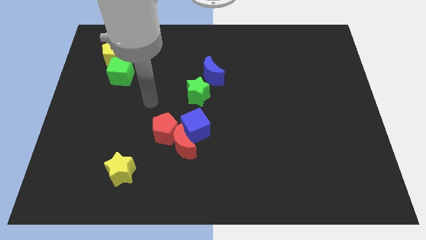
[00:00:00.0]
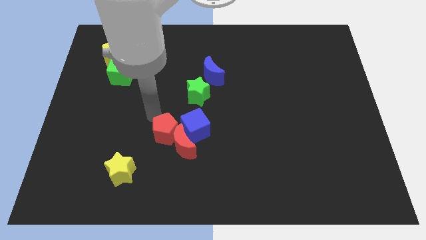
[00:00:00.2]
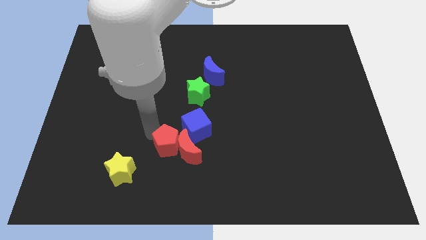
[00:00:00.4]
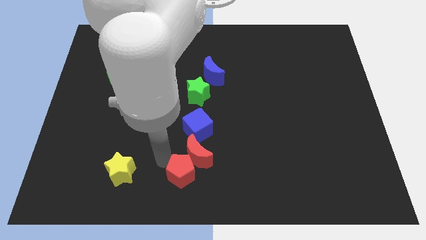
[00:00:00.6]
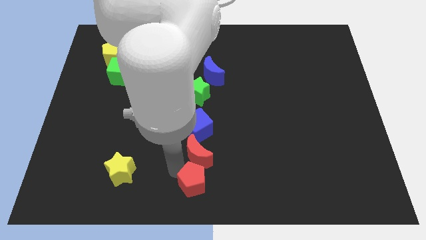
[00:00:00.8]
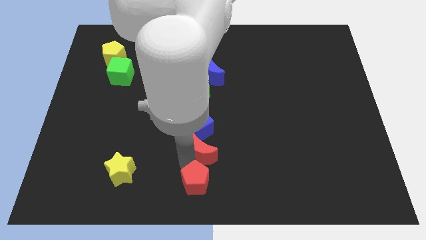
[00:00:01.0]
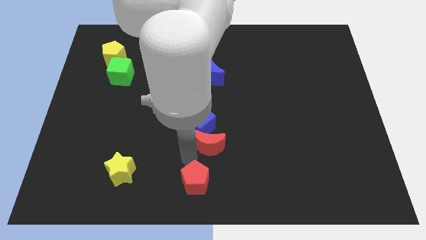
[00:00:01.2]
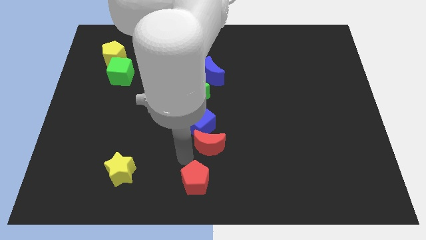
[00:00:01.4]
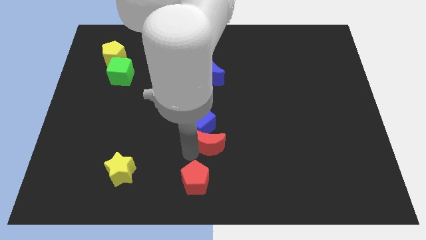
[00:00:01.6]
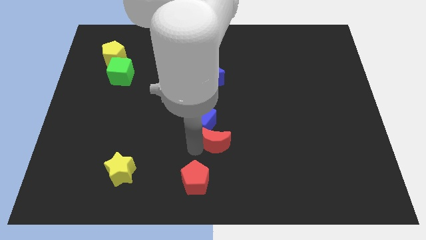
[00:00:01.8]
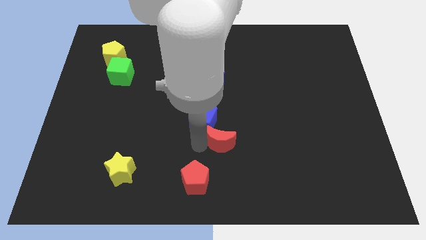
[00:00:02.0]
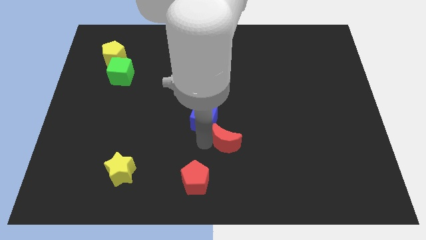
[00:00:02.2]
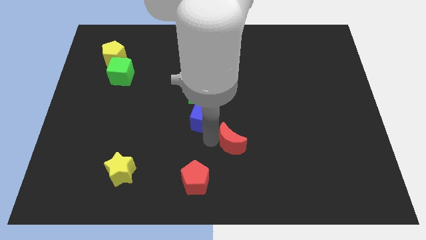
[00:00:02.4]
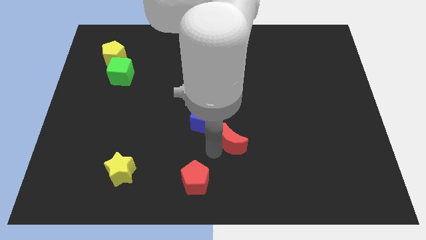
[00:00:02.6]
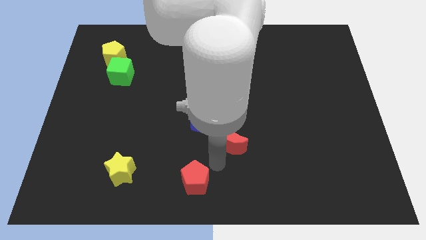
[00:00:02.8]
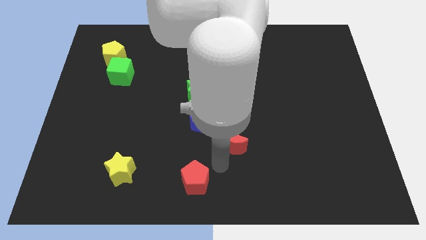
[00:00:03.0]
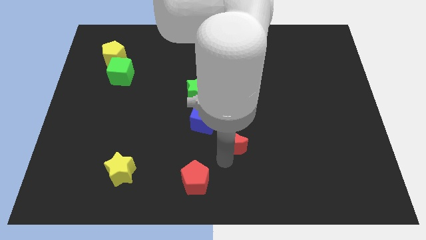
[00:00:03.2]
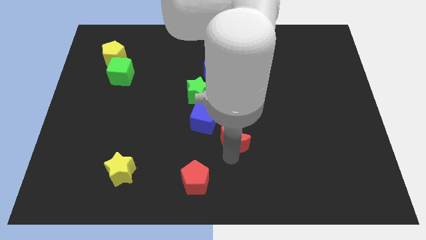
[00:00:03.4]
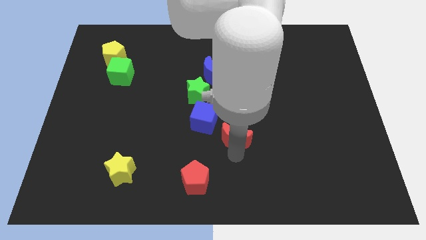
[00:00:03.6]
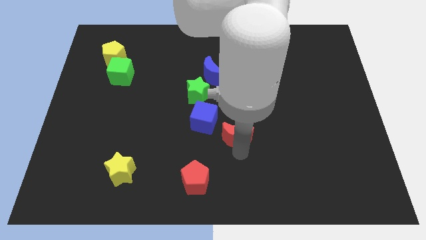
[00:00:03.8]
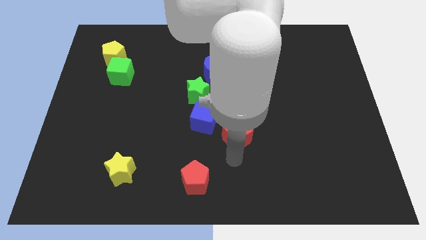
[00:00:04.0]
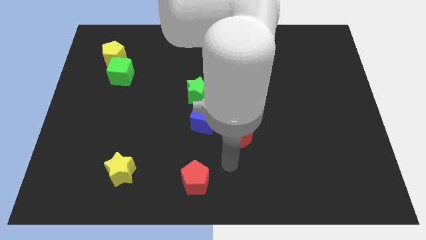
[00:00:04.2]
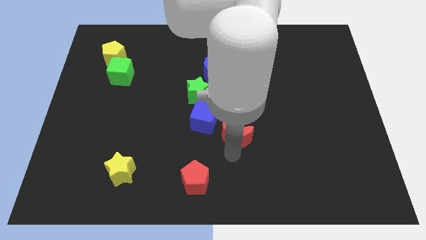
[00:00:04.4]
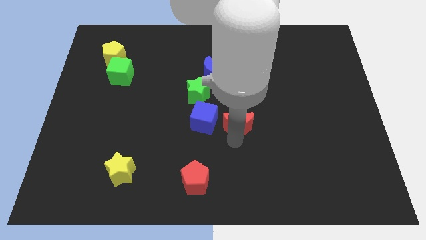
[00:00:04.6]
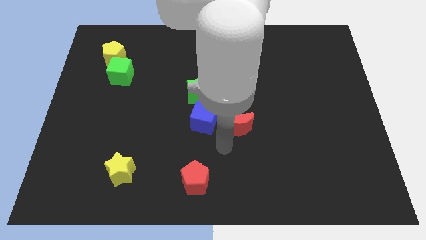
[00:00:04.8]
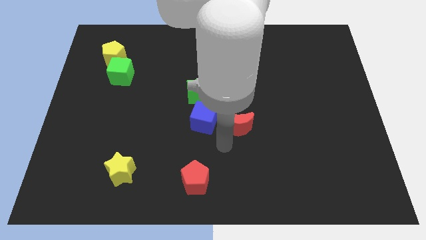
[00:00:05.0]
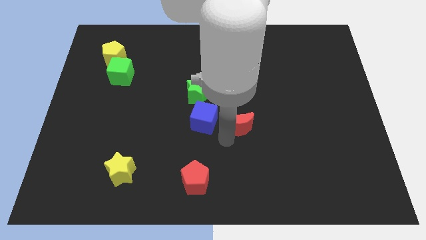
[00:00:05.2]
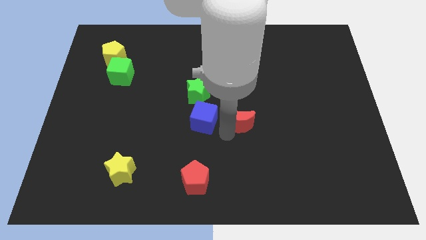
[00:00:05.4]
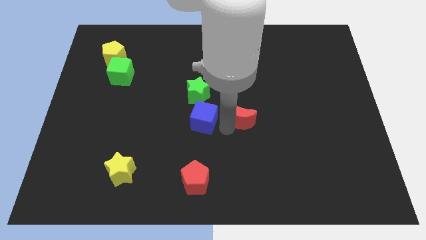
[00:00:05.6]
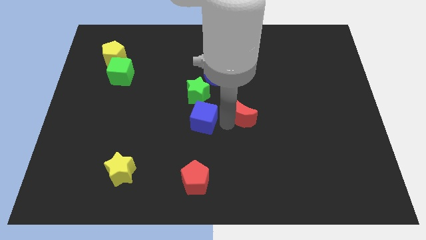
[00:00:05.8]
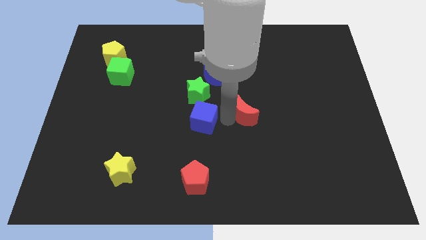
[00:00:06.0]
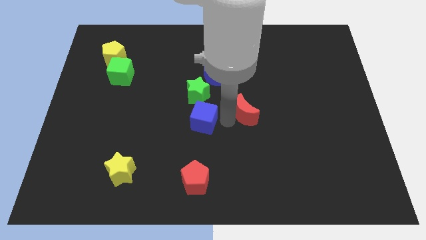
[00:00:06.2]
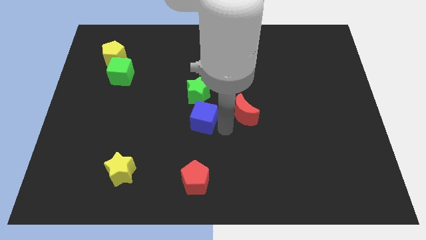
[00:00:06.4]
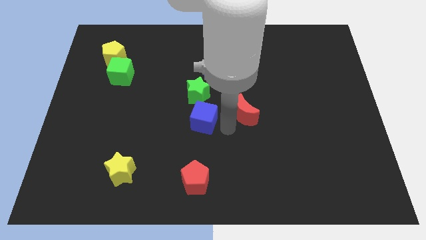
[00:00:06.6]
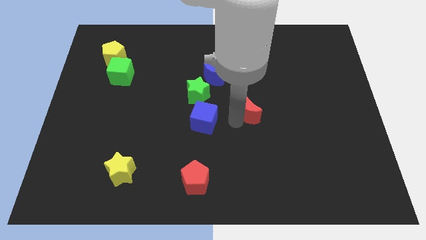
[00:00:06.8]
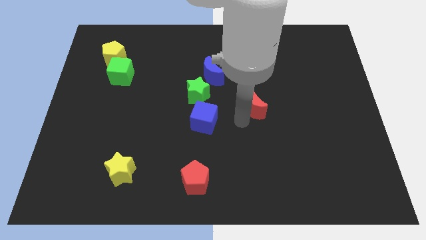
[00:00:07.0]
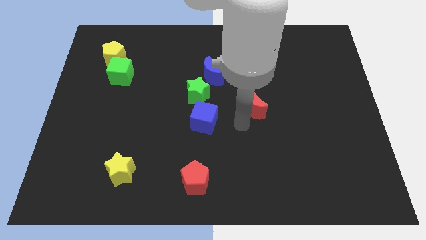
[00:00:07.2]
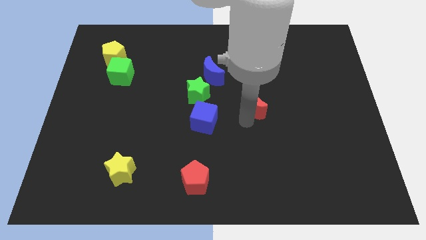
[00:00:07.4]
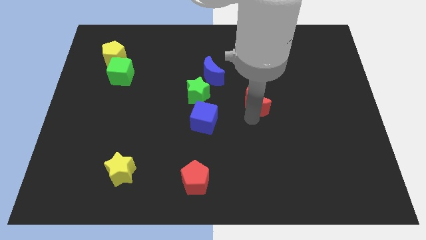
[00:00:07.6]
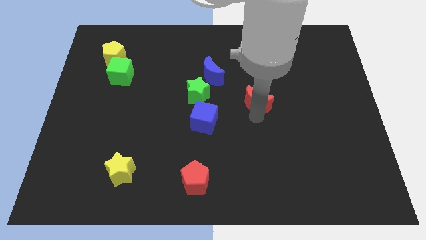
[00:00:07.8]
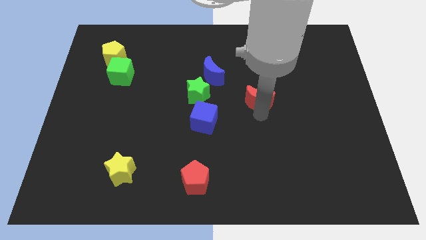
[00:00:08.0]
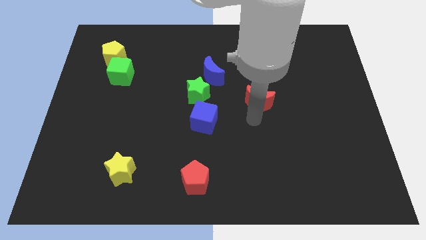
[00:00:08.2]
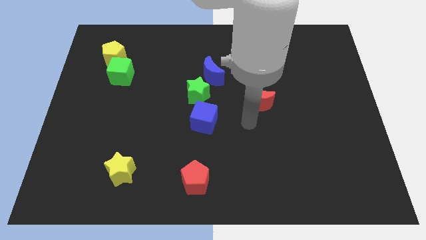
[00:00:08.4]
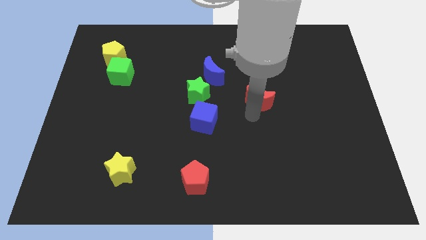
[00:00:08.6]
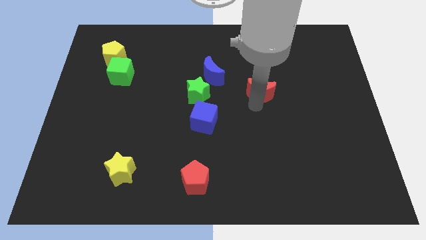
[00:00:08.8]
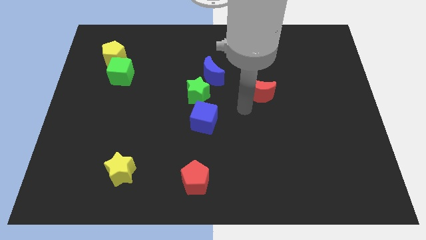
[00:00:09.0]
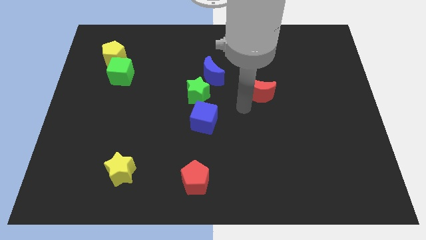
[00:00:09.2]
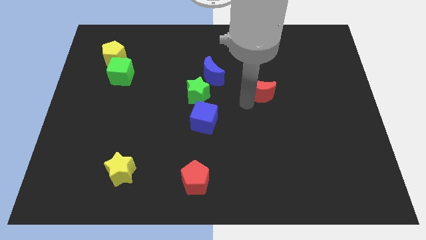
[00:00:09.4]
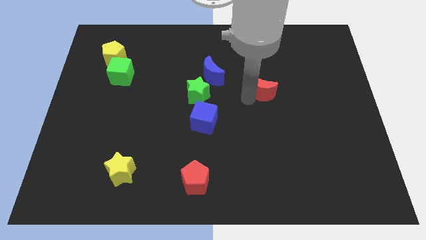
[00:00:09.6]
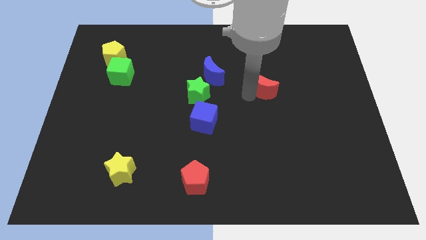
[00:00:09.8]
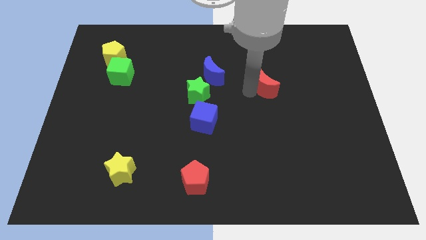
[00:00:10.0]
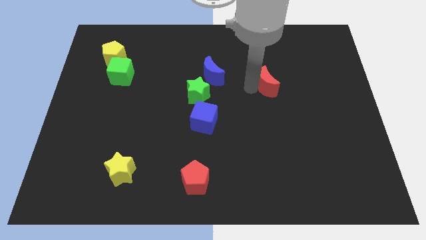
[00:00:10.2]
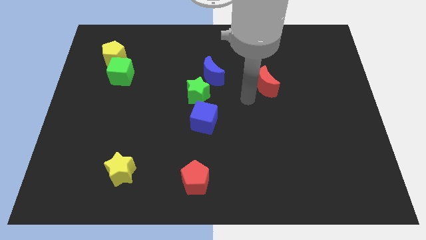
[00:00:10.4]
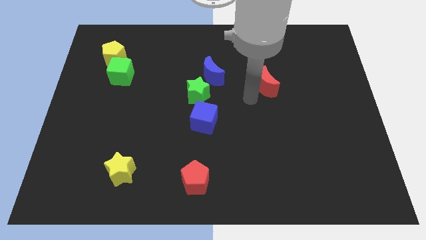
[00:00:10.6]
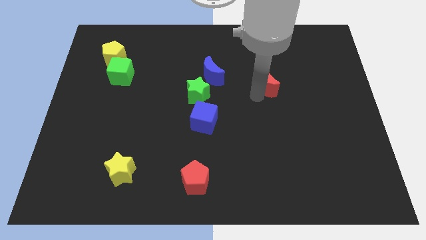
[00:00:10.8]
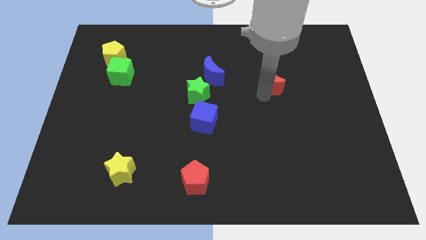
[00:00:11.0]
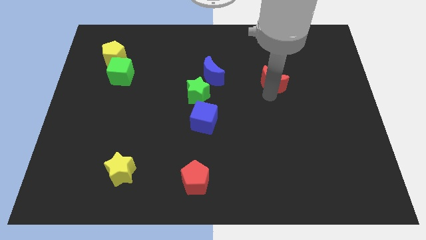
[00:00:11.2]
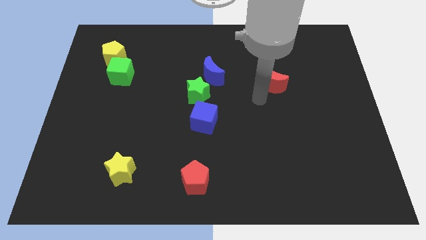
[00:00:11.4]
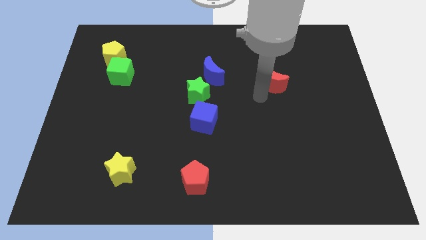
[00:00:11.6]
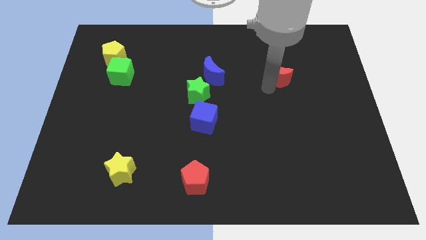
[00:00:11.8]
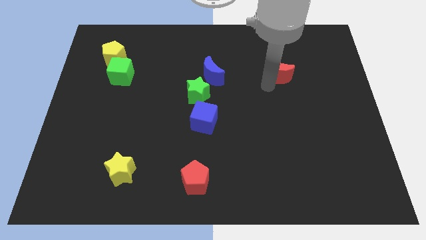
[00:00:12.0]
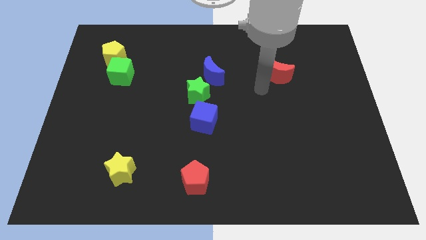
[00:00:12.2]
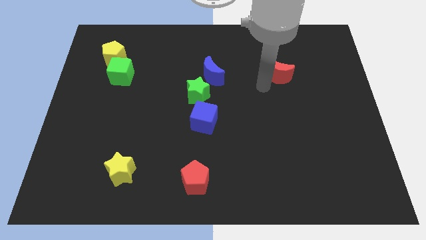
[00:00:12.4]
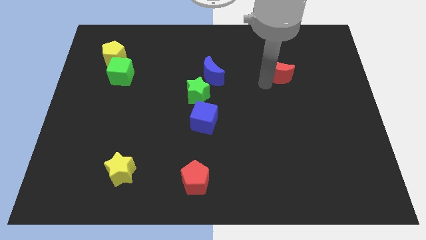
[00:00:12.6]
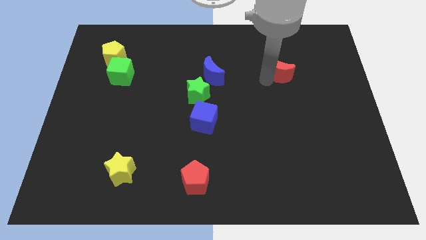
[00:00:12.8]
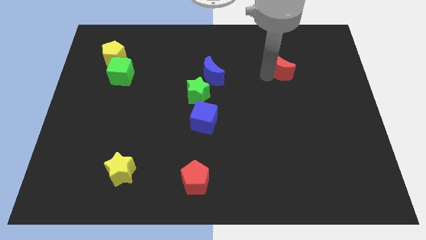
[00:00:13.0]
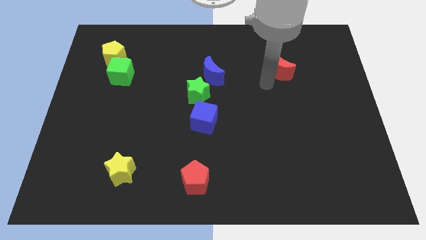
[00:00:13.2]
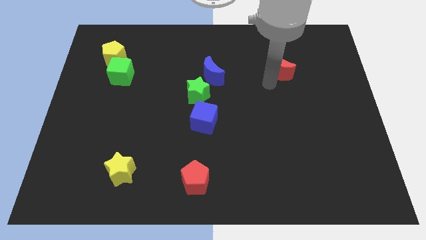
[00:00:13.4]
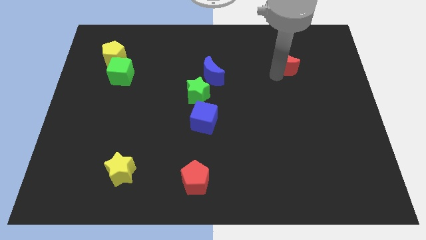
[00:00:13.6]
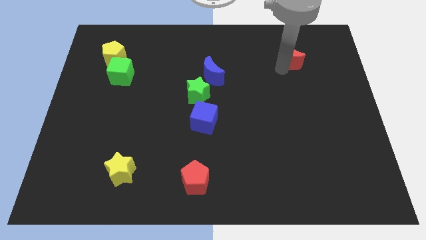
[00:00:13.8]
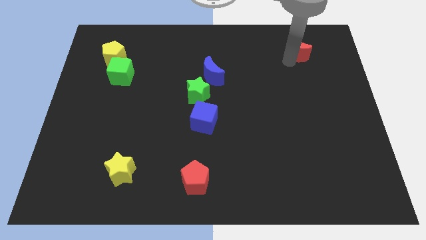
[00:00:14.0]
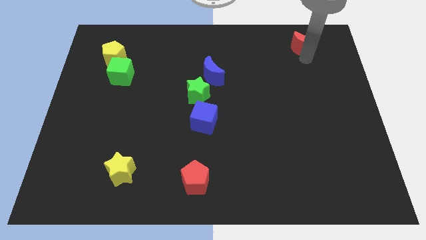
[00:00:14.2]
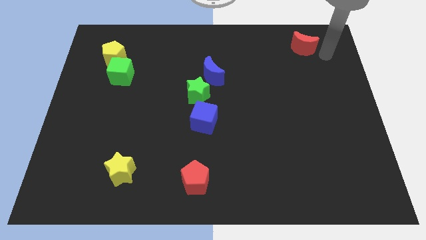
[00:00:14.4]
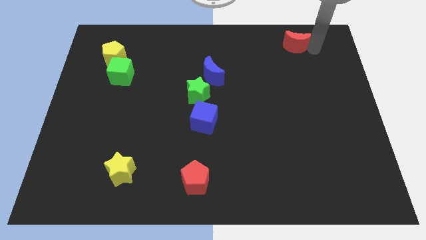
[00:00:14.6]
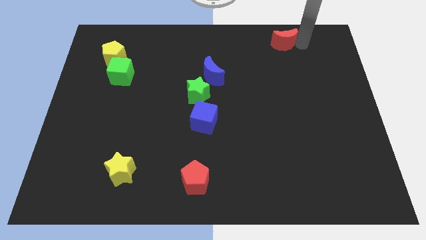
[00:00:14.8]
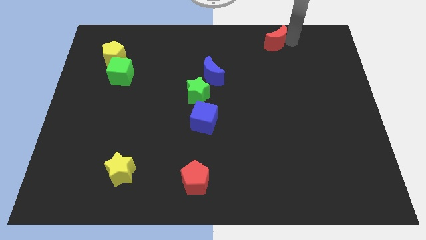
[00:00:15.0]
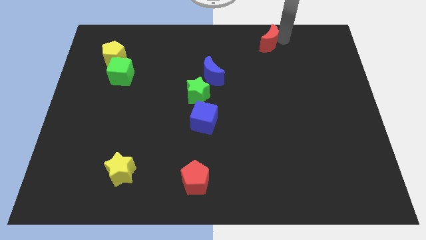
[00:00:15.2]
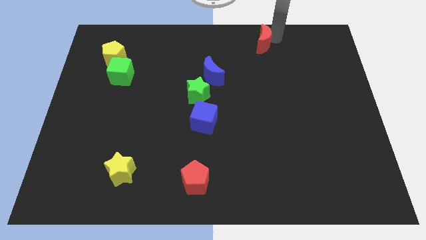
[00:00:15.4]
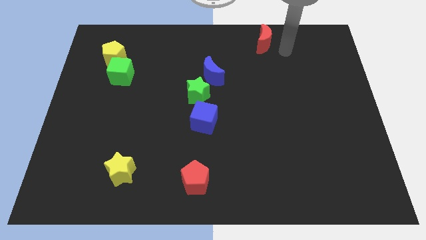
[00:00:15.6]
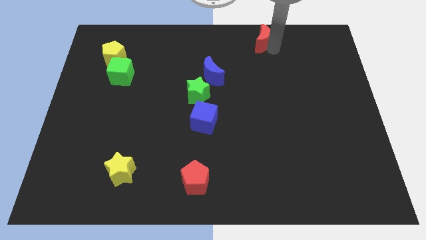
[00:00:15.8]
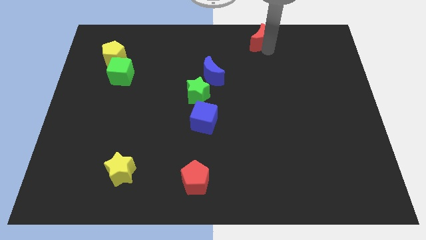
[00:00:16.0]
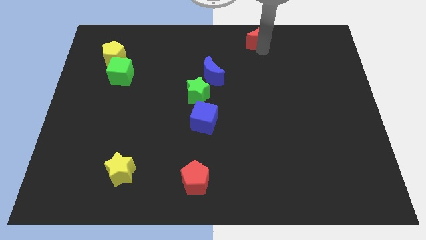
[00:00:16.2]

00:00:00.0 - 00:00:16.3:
put the red moon to the top
